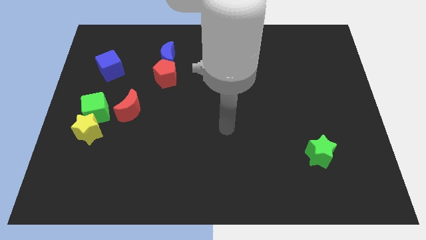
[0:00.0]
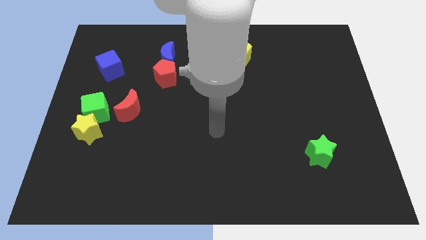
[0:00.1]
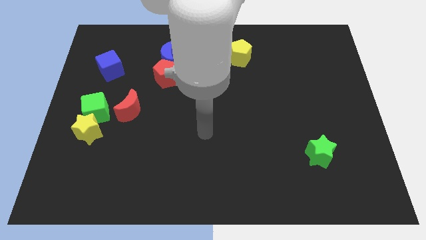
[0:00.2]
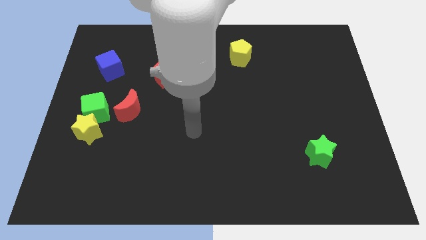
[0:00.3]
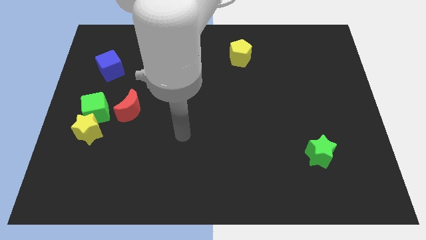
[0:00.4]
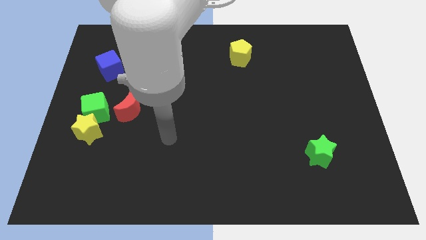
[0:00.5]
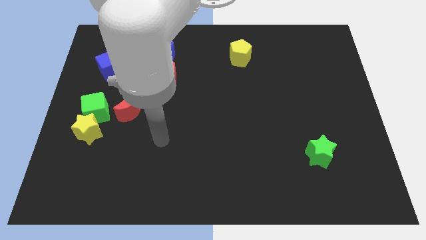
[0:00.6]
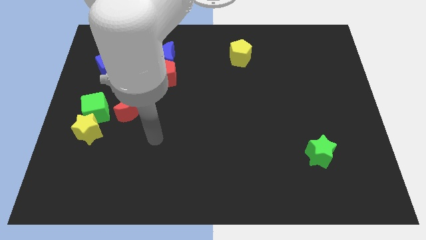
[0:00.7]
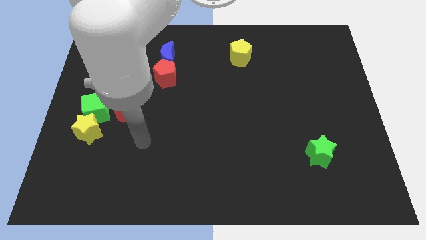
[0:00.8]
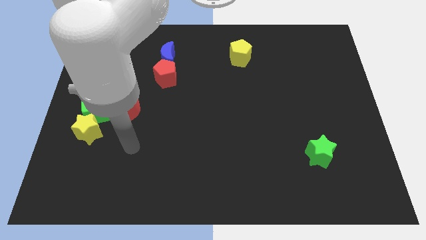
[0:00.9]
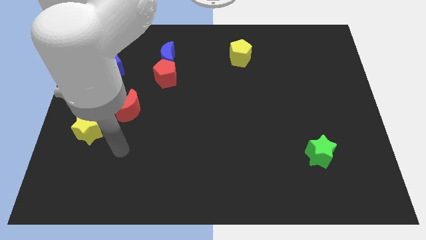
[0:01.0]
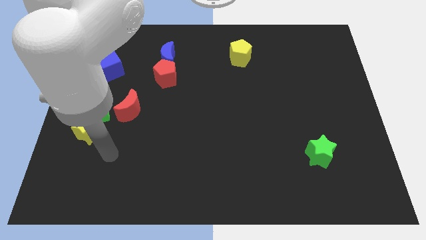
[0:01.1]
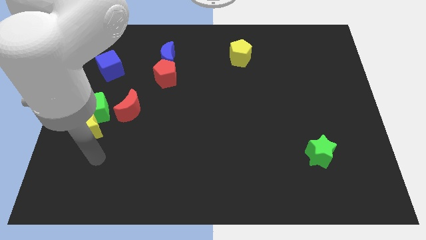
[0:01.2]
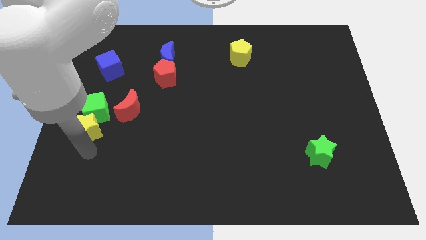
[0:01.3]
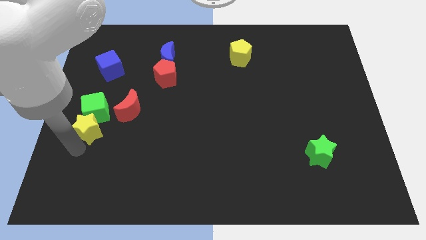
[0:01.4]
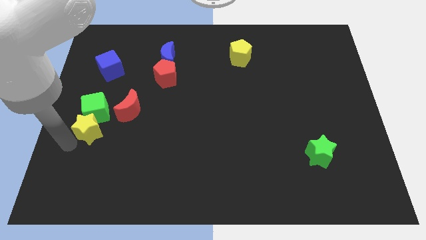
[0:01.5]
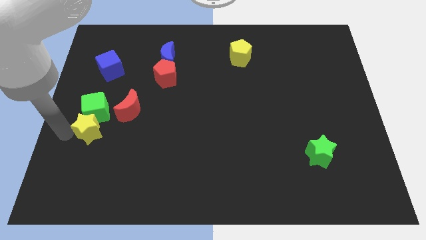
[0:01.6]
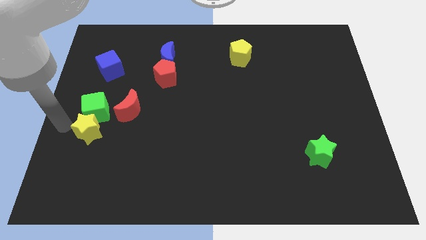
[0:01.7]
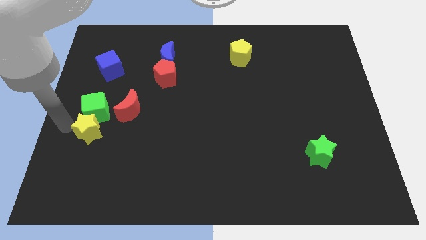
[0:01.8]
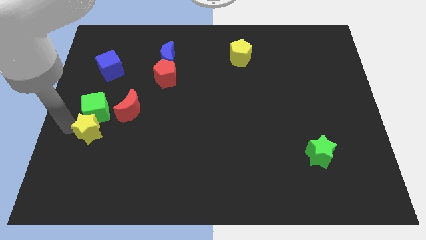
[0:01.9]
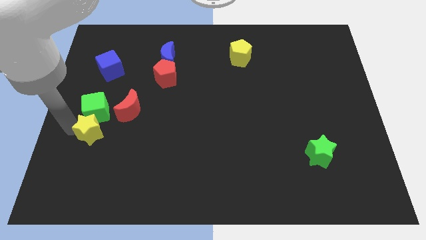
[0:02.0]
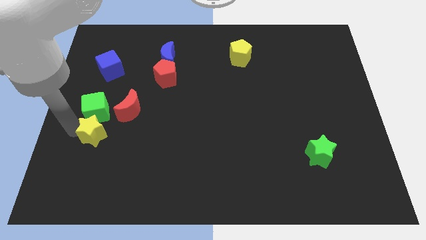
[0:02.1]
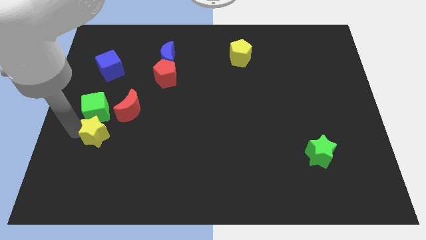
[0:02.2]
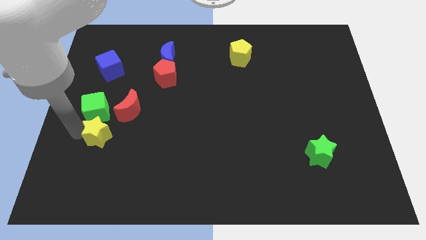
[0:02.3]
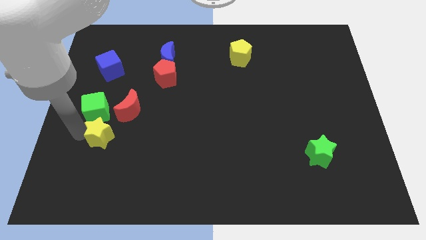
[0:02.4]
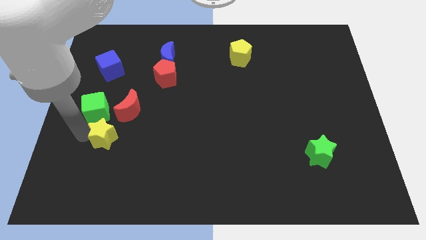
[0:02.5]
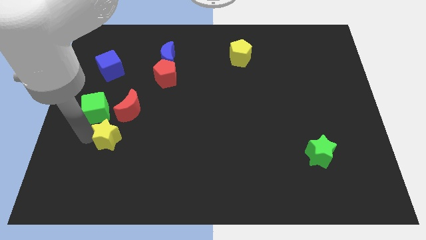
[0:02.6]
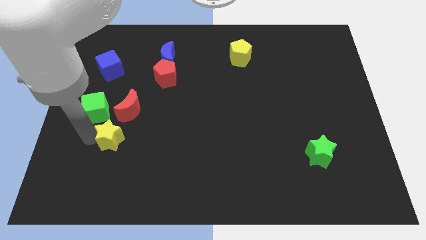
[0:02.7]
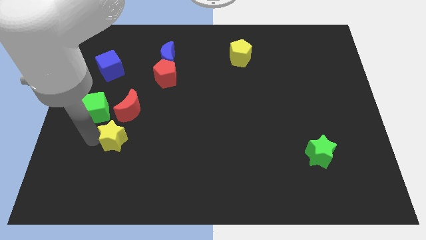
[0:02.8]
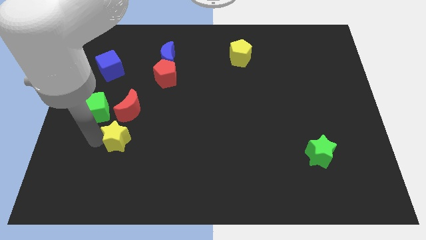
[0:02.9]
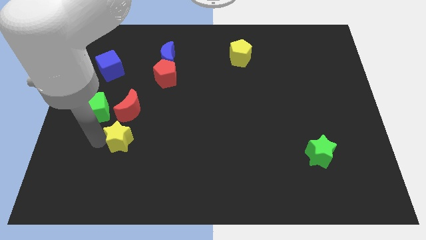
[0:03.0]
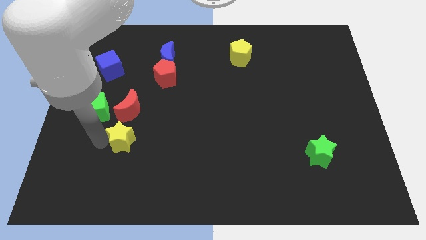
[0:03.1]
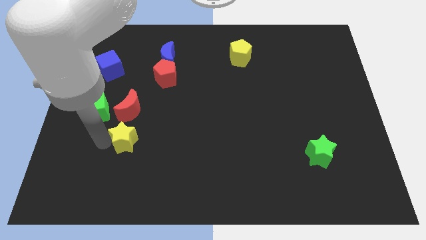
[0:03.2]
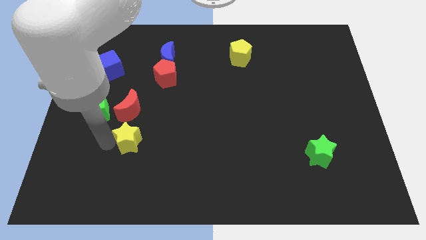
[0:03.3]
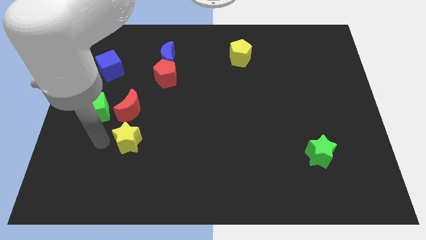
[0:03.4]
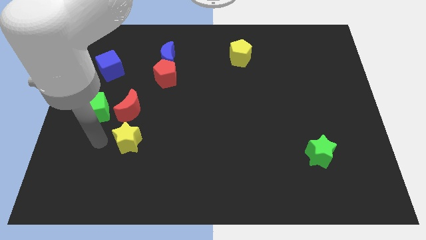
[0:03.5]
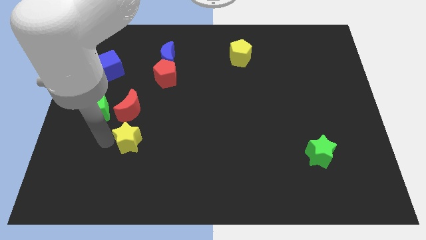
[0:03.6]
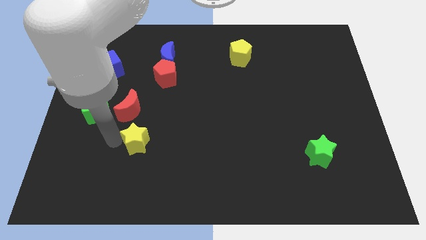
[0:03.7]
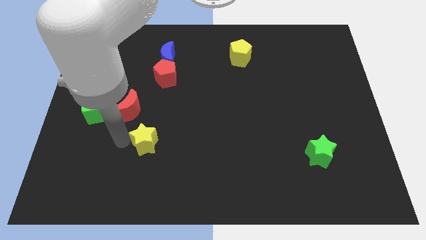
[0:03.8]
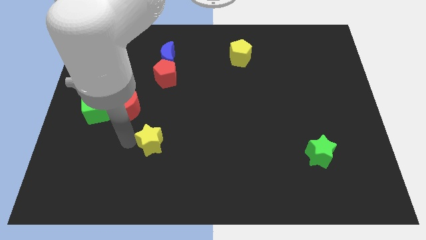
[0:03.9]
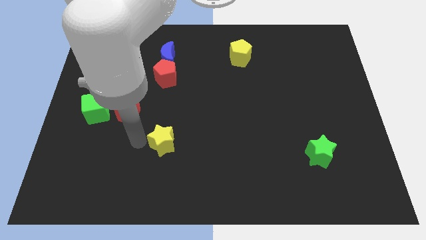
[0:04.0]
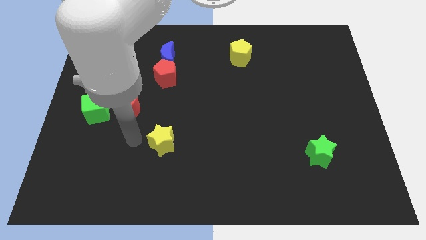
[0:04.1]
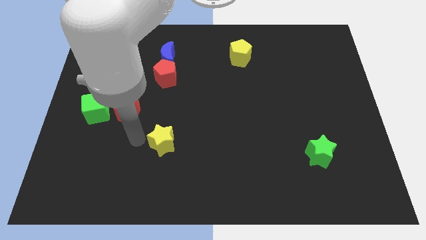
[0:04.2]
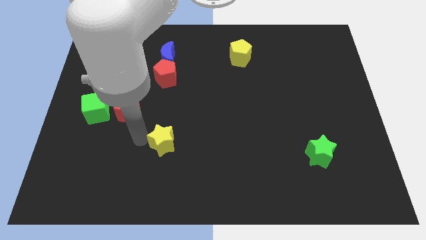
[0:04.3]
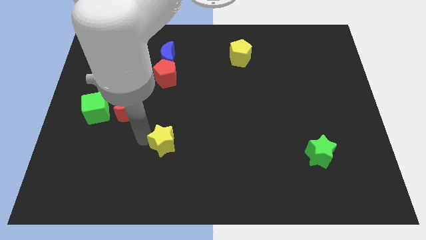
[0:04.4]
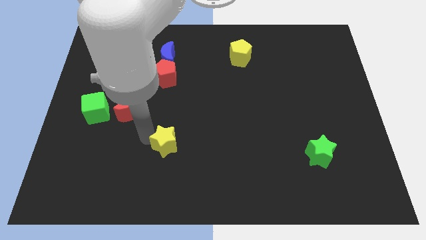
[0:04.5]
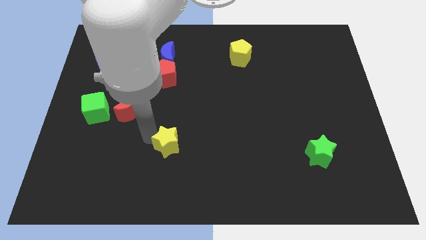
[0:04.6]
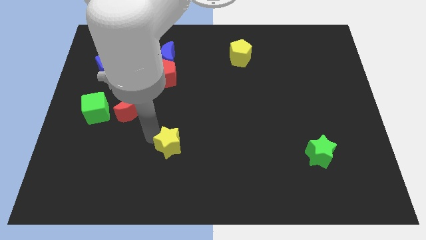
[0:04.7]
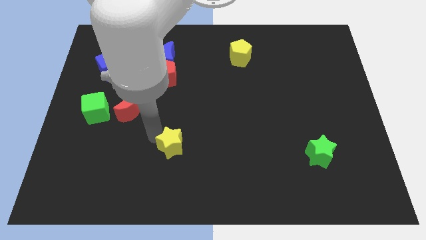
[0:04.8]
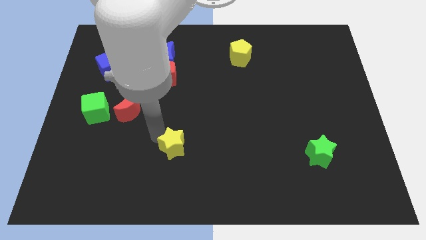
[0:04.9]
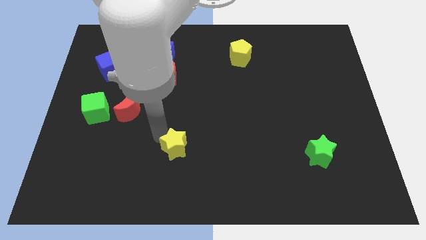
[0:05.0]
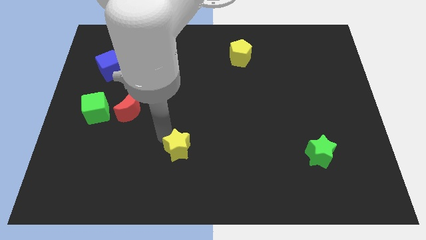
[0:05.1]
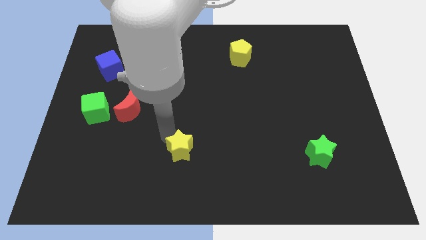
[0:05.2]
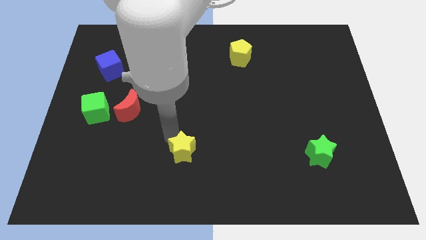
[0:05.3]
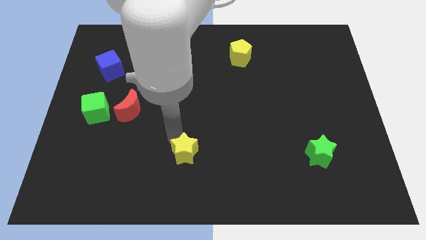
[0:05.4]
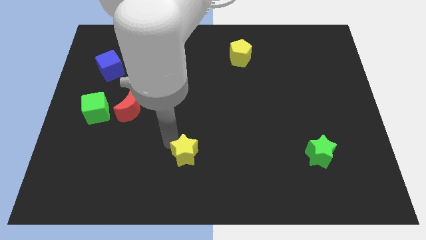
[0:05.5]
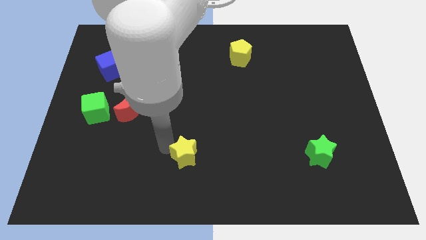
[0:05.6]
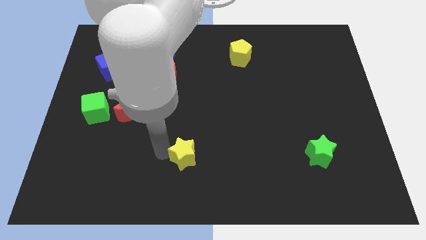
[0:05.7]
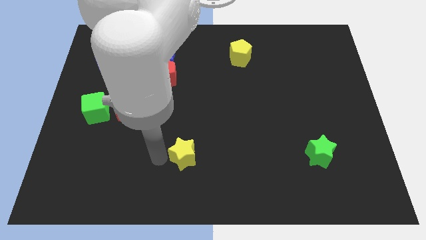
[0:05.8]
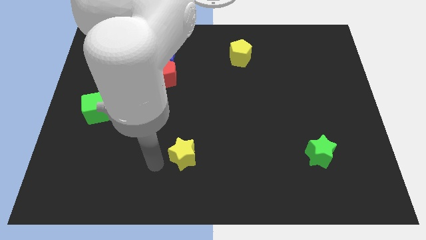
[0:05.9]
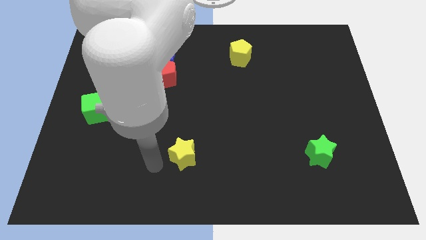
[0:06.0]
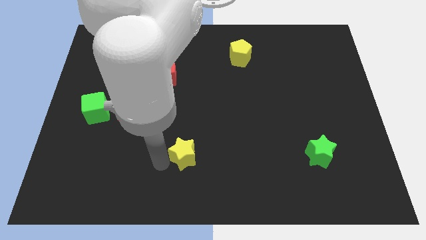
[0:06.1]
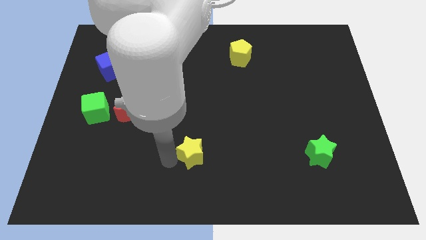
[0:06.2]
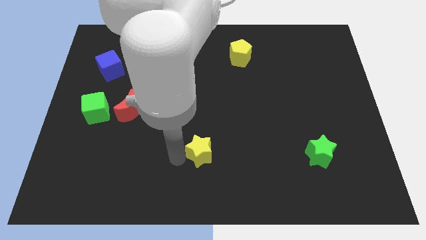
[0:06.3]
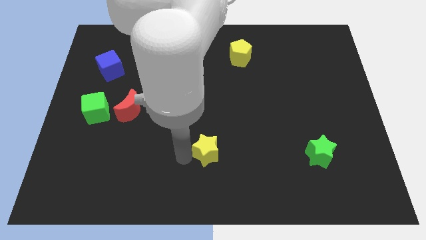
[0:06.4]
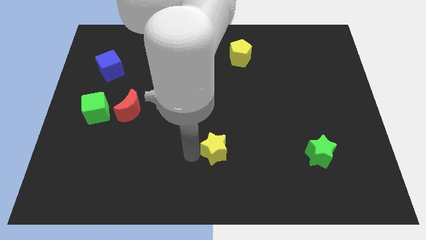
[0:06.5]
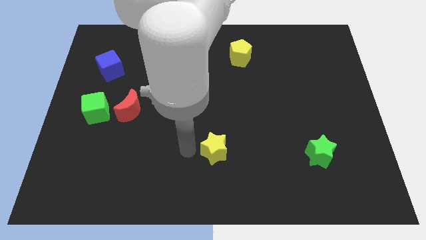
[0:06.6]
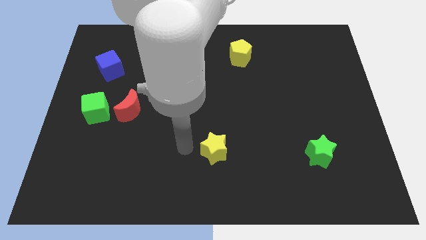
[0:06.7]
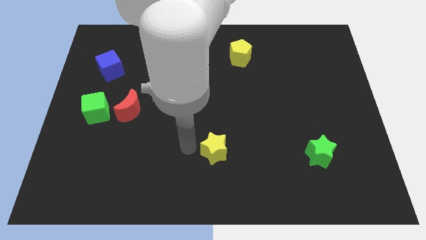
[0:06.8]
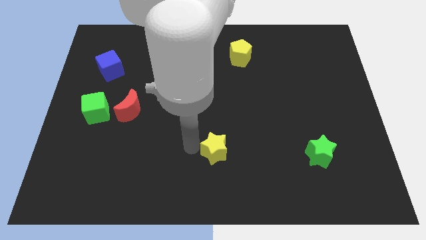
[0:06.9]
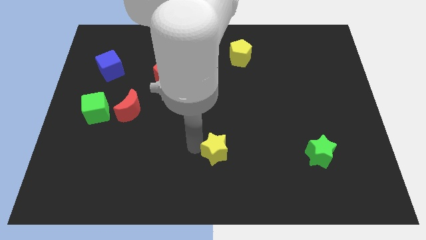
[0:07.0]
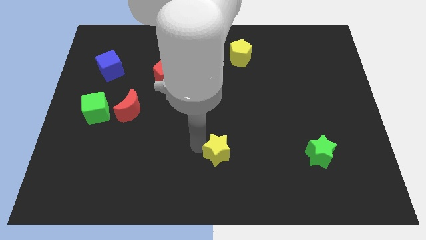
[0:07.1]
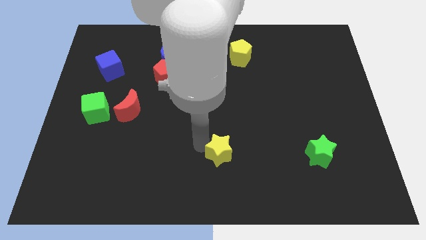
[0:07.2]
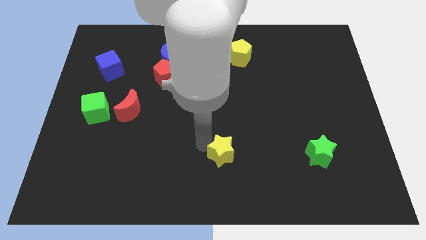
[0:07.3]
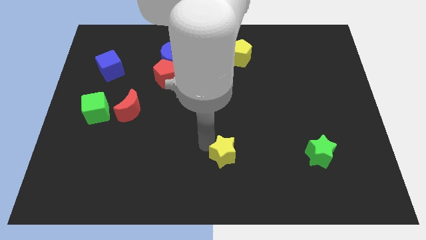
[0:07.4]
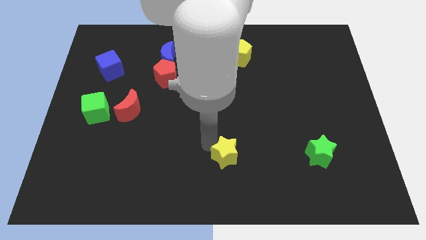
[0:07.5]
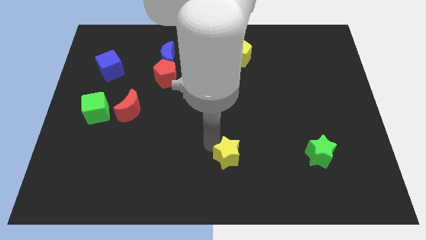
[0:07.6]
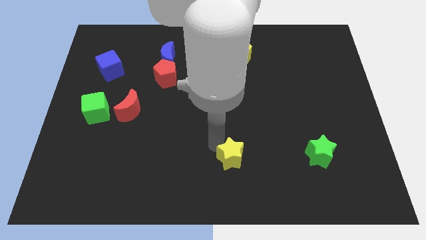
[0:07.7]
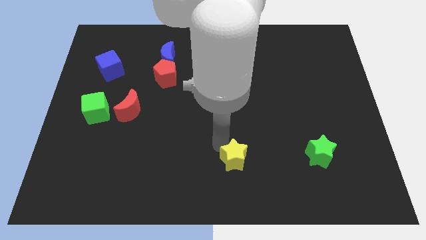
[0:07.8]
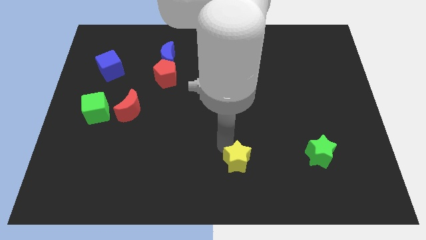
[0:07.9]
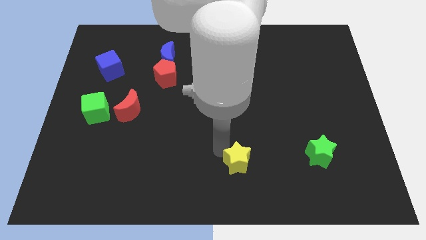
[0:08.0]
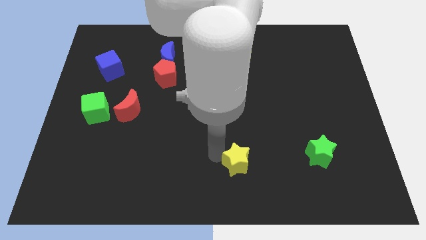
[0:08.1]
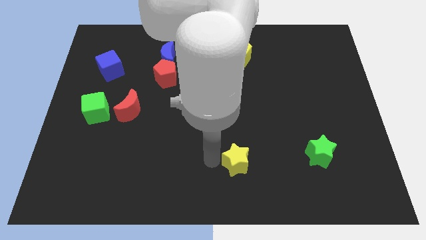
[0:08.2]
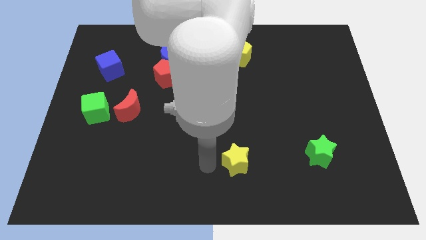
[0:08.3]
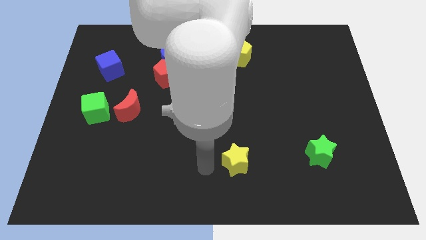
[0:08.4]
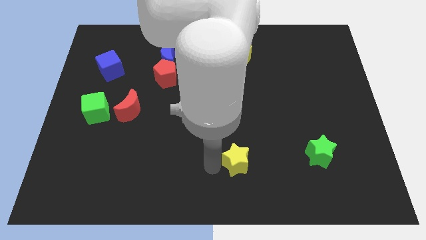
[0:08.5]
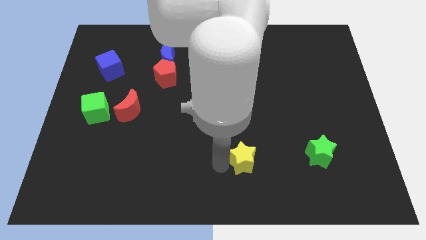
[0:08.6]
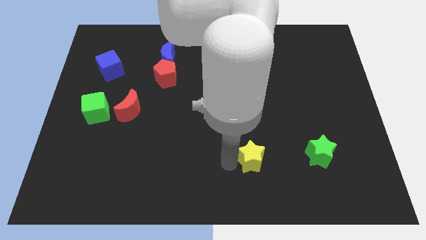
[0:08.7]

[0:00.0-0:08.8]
move the yellow star to the left side of the green star
